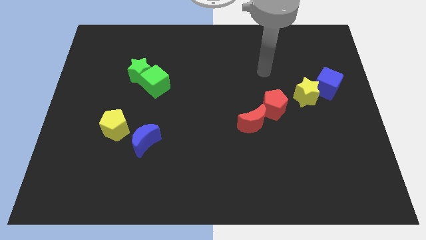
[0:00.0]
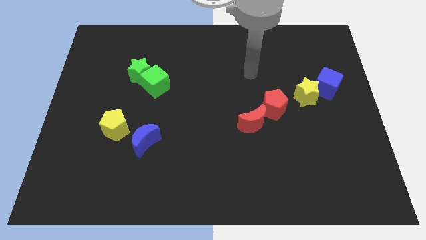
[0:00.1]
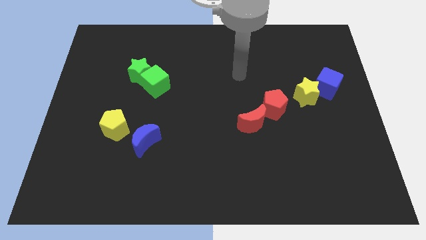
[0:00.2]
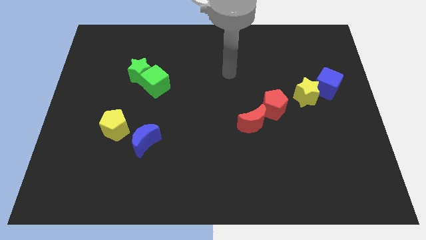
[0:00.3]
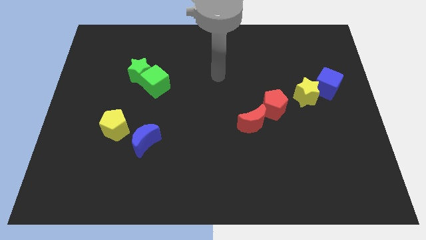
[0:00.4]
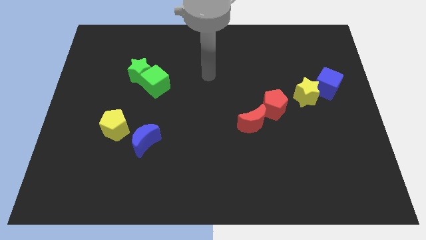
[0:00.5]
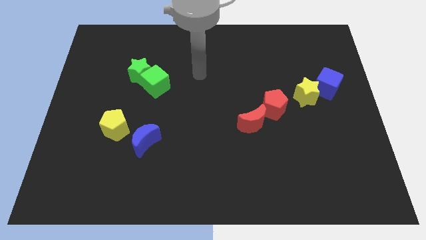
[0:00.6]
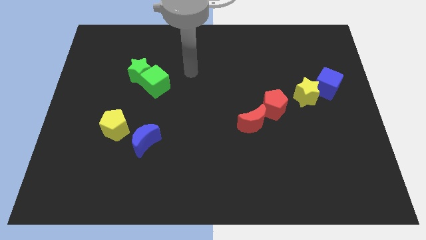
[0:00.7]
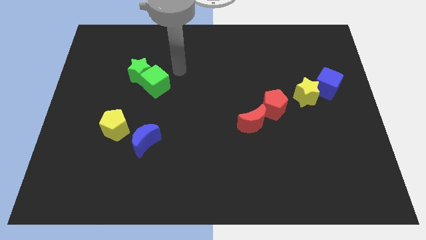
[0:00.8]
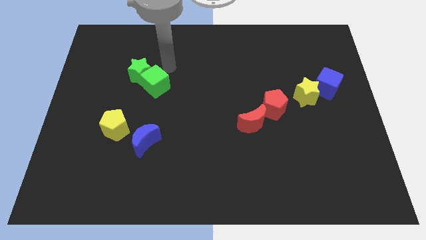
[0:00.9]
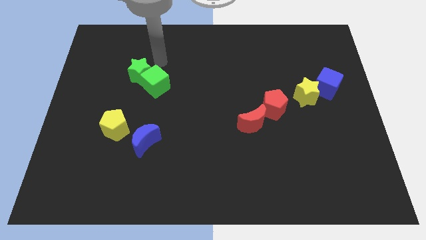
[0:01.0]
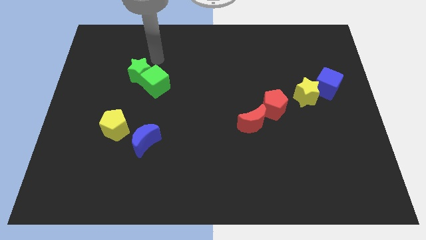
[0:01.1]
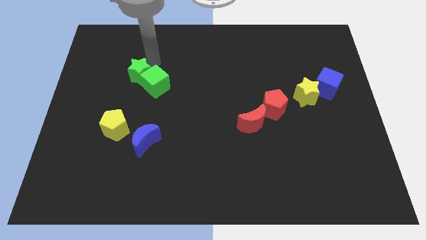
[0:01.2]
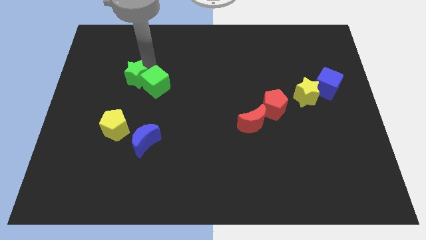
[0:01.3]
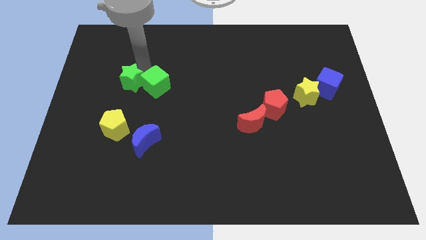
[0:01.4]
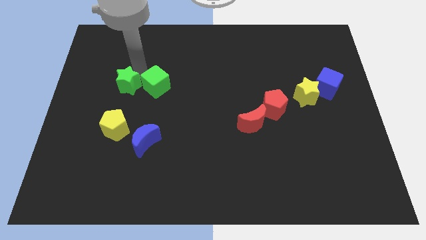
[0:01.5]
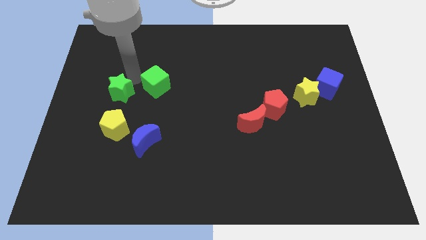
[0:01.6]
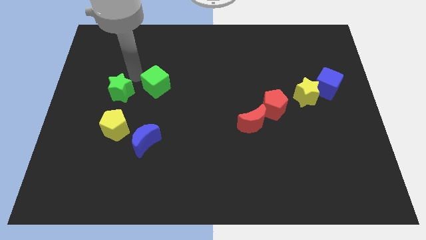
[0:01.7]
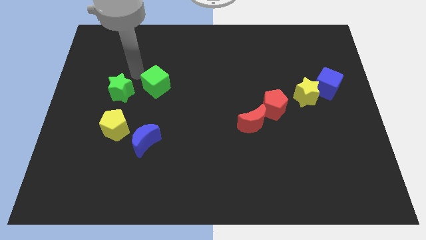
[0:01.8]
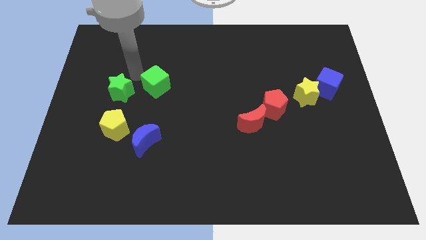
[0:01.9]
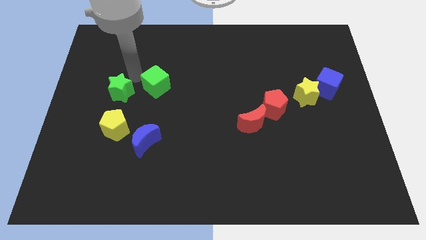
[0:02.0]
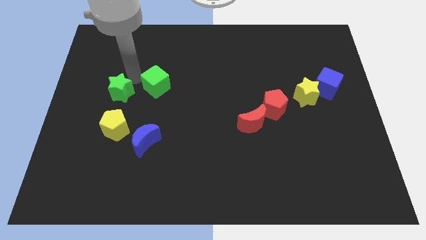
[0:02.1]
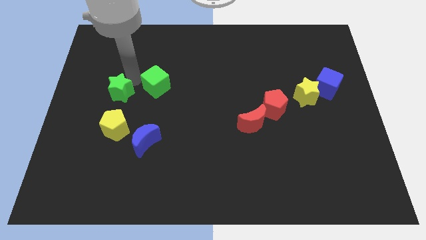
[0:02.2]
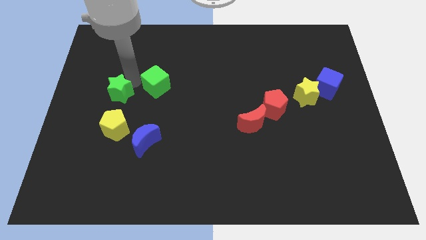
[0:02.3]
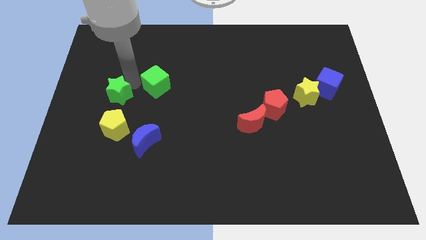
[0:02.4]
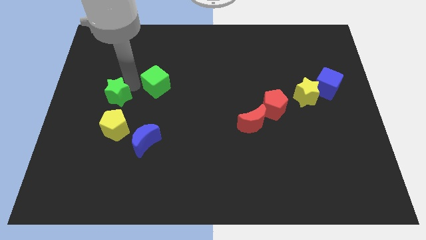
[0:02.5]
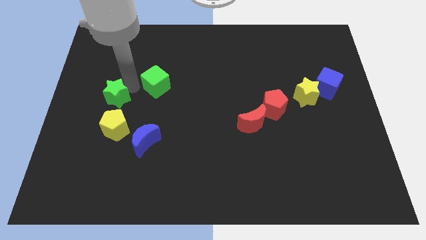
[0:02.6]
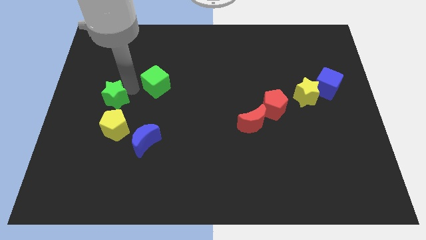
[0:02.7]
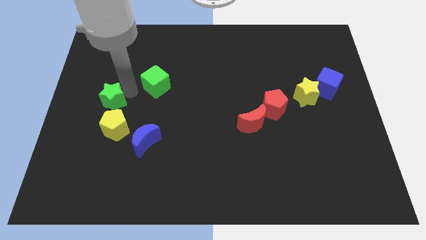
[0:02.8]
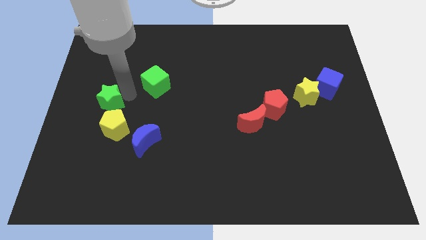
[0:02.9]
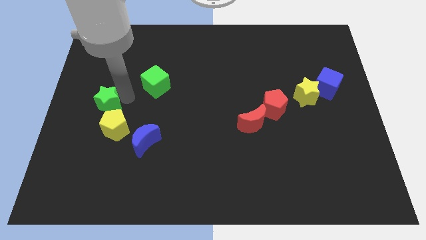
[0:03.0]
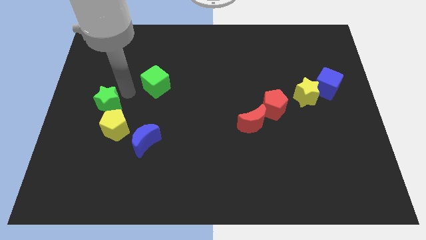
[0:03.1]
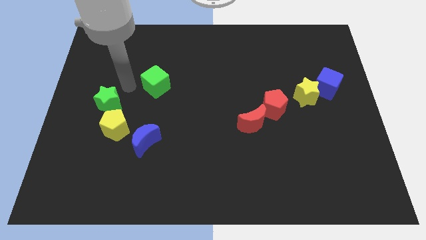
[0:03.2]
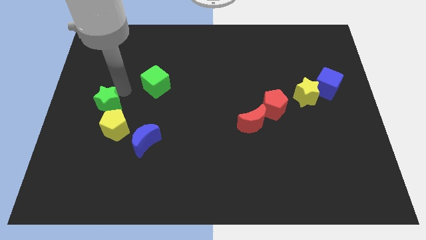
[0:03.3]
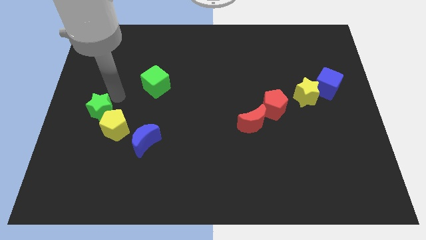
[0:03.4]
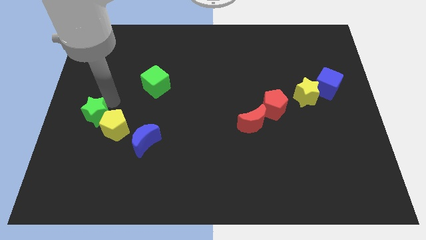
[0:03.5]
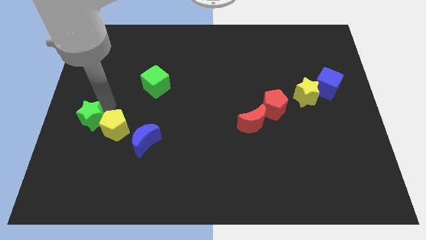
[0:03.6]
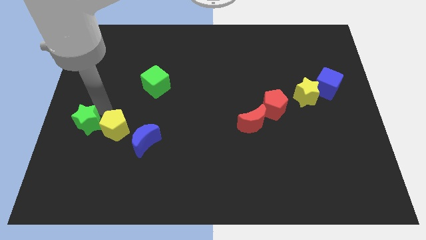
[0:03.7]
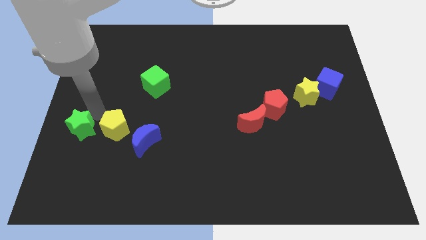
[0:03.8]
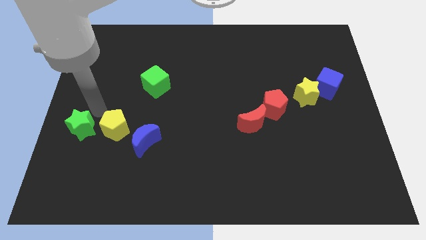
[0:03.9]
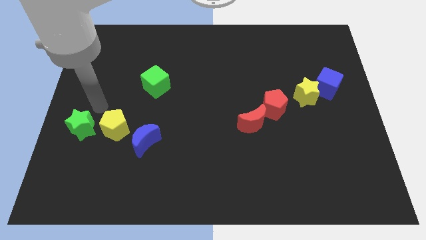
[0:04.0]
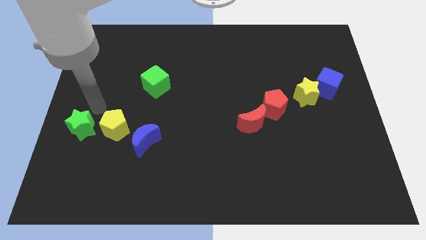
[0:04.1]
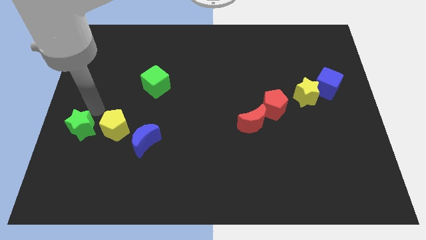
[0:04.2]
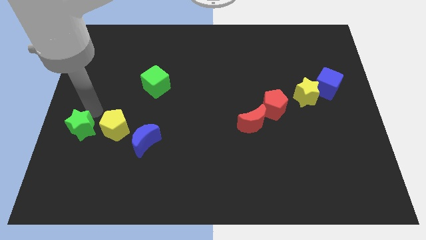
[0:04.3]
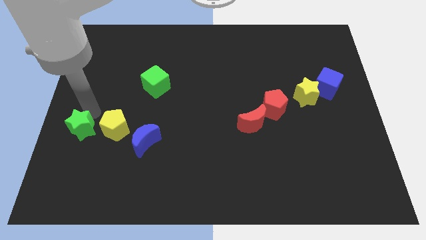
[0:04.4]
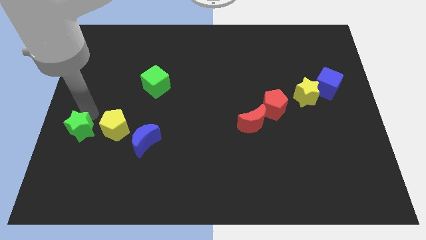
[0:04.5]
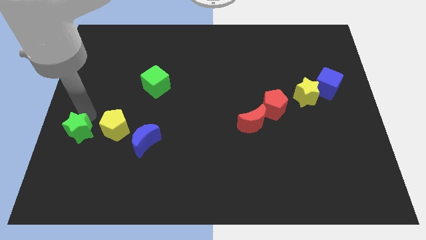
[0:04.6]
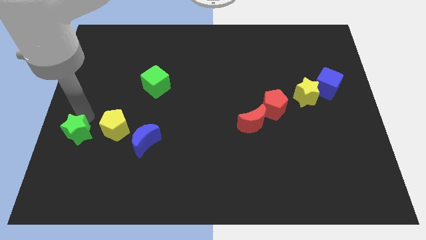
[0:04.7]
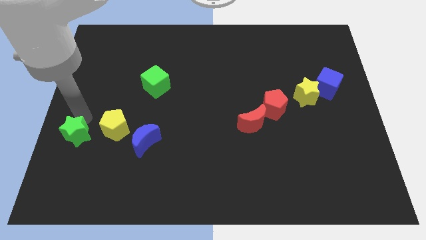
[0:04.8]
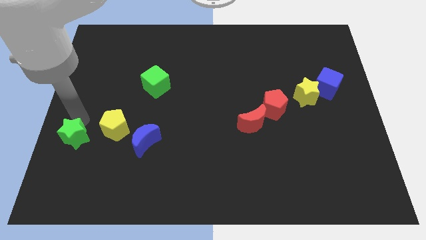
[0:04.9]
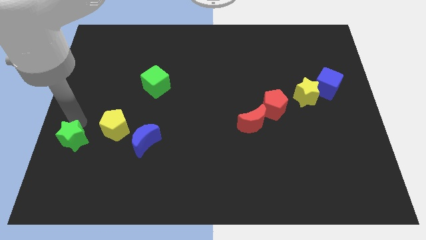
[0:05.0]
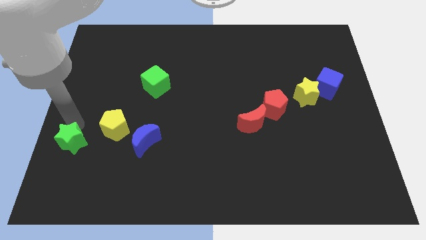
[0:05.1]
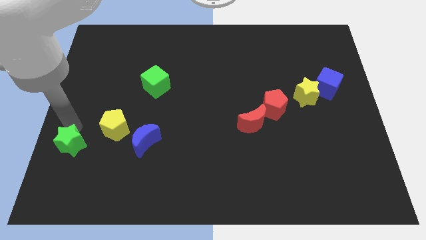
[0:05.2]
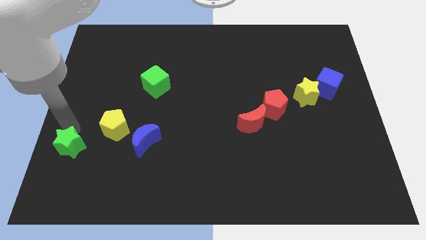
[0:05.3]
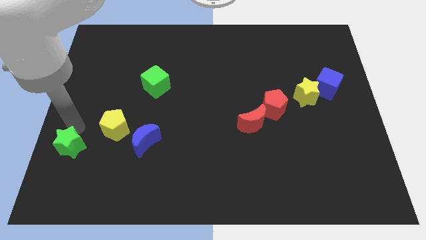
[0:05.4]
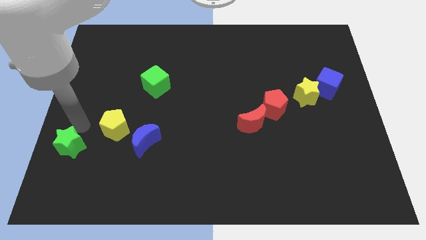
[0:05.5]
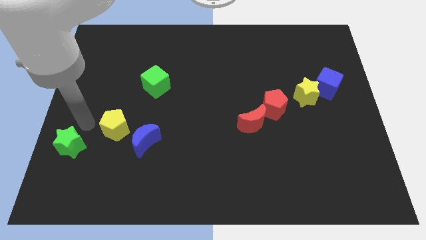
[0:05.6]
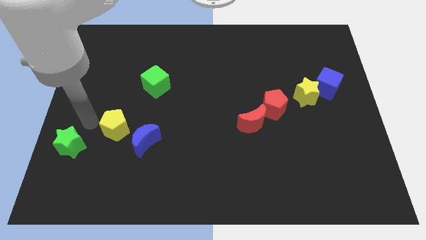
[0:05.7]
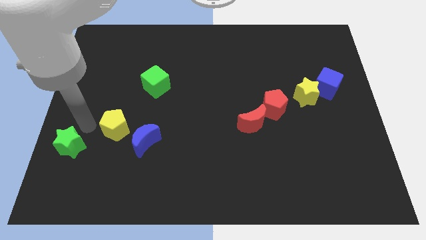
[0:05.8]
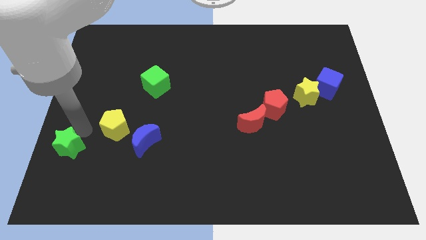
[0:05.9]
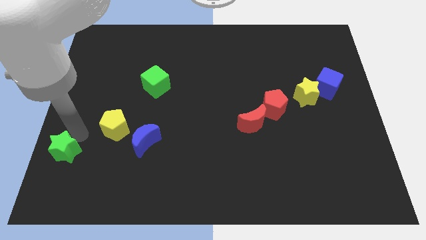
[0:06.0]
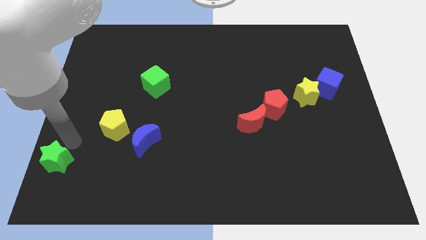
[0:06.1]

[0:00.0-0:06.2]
push the green star to the bottom left of the board

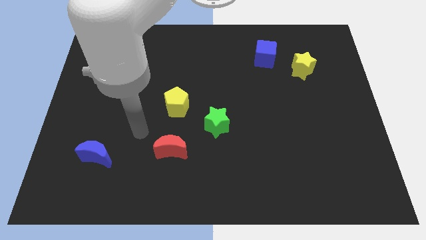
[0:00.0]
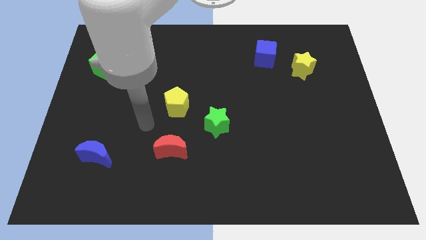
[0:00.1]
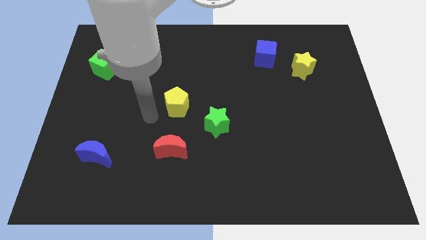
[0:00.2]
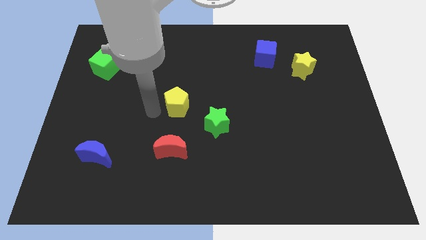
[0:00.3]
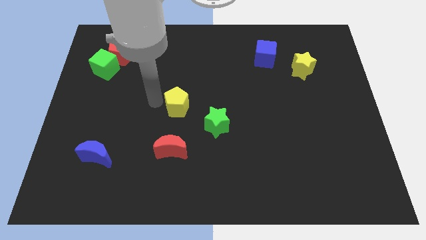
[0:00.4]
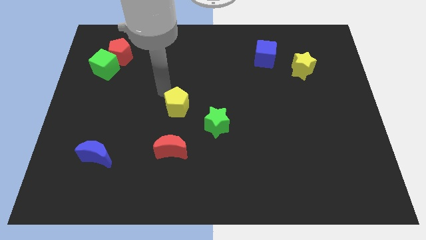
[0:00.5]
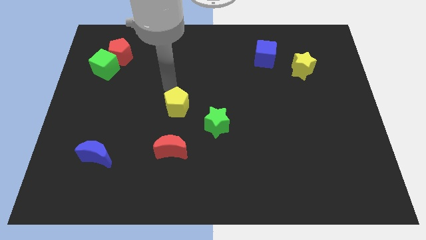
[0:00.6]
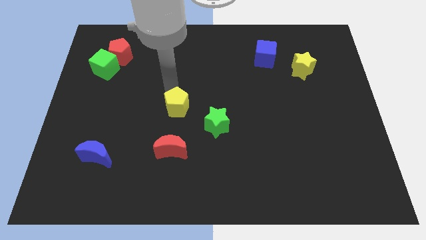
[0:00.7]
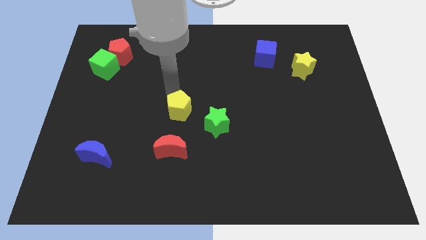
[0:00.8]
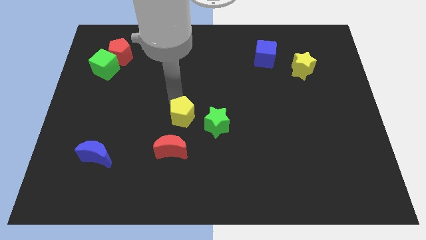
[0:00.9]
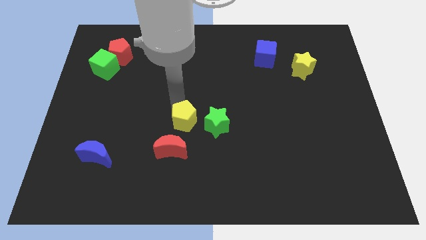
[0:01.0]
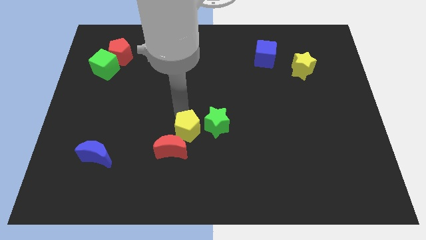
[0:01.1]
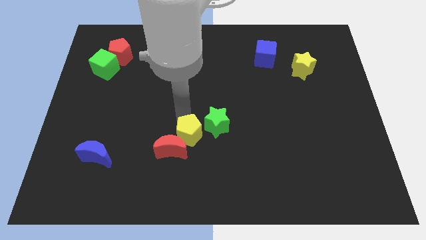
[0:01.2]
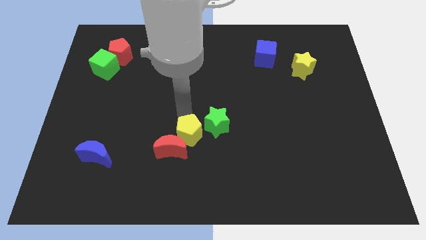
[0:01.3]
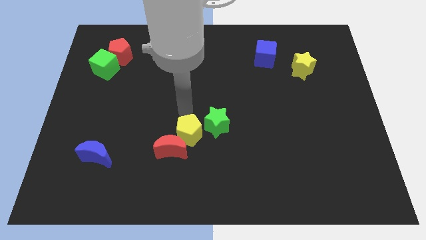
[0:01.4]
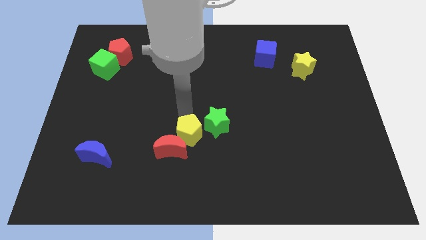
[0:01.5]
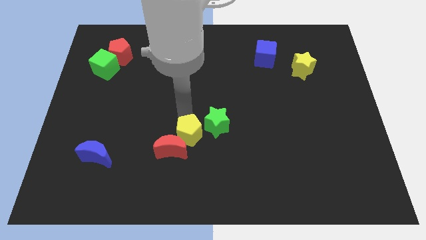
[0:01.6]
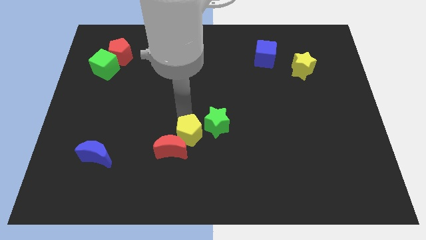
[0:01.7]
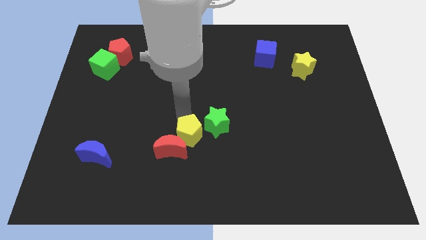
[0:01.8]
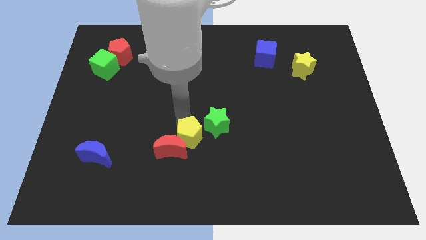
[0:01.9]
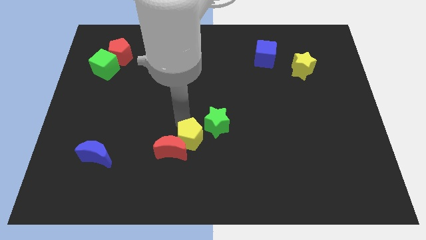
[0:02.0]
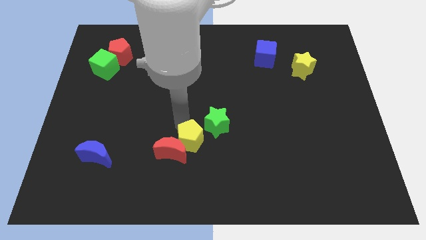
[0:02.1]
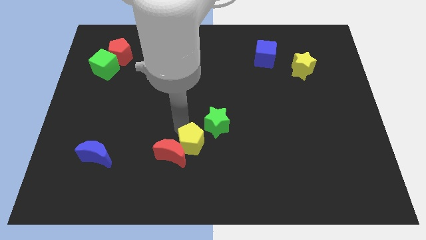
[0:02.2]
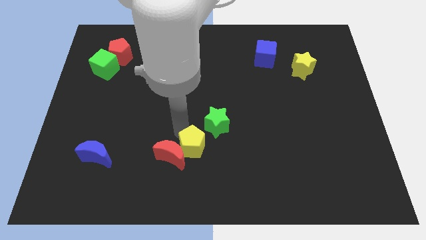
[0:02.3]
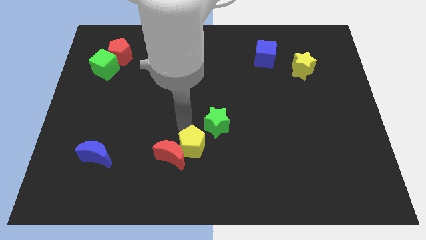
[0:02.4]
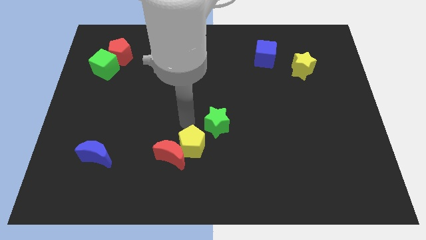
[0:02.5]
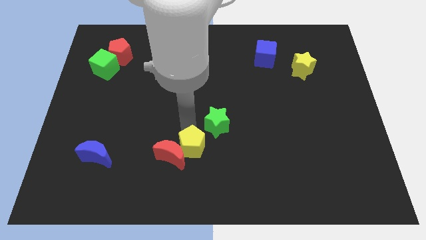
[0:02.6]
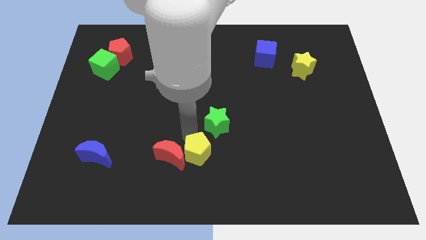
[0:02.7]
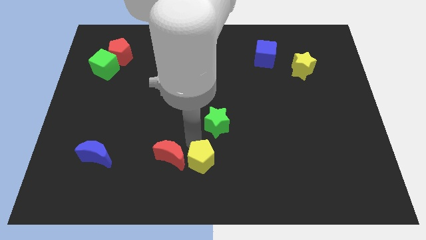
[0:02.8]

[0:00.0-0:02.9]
slide the yellow pentagon to the bottom
